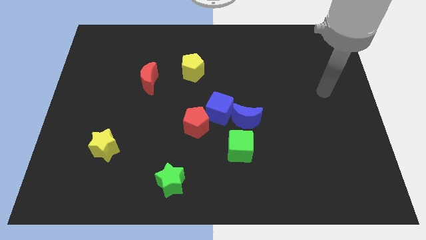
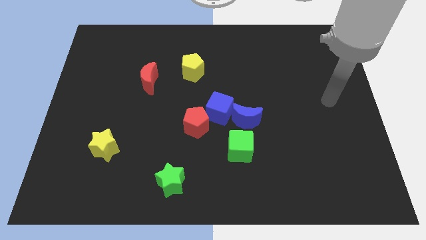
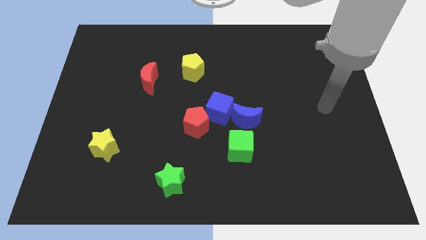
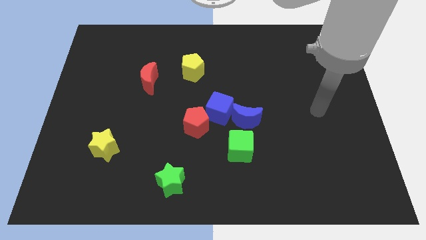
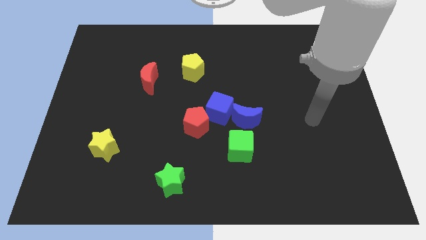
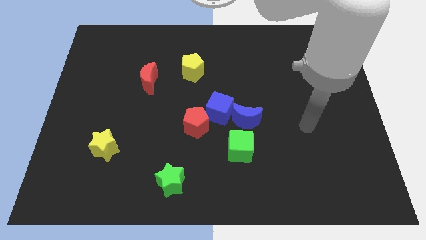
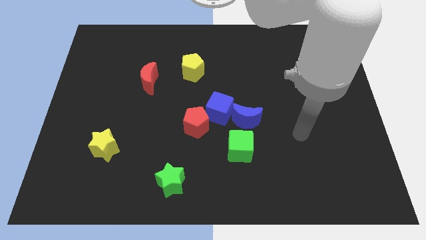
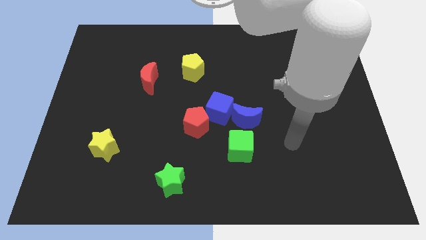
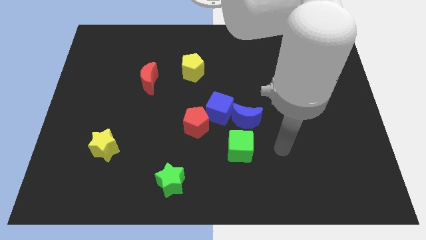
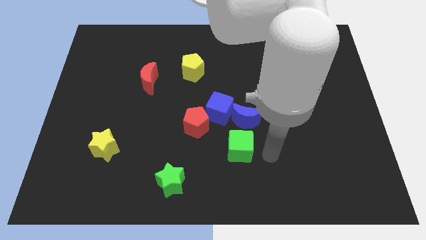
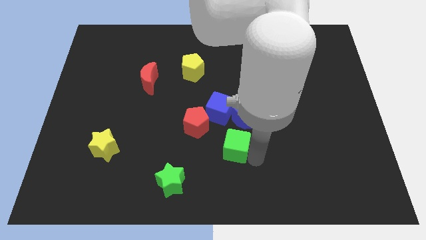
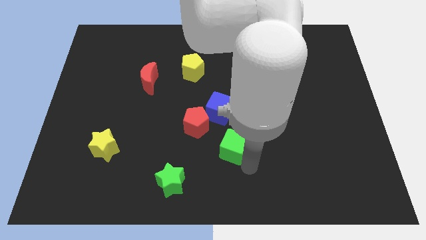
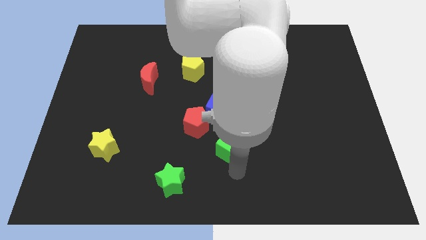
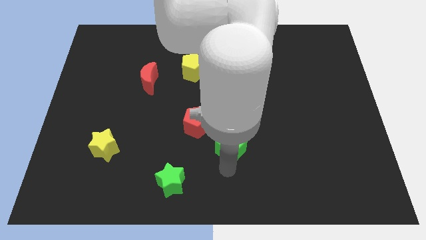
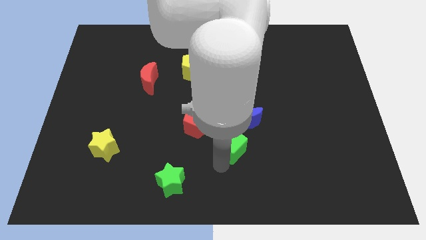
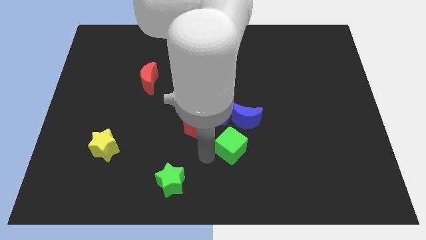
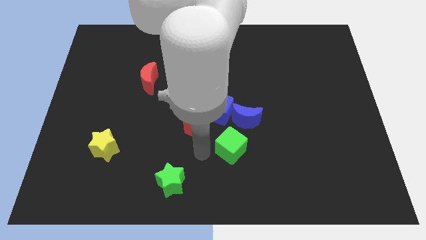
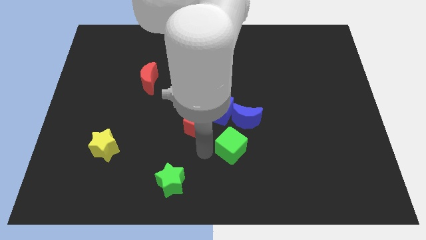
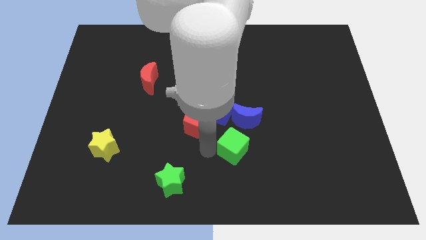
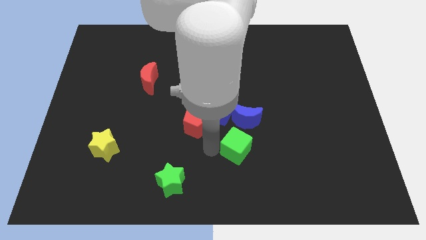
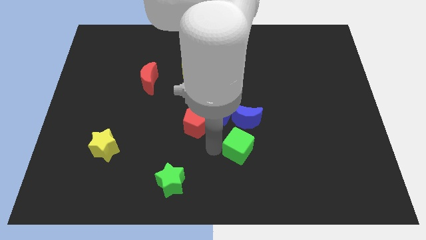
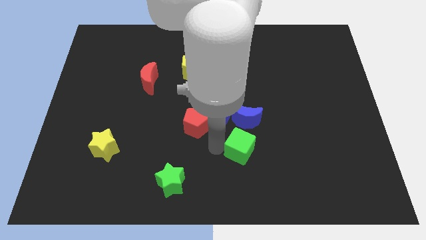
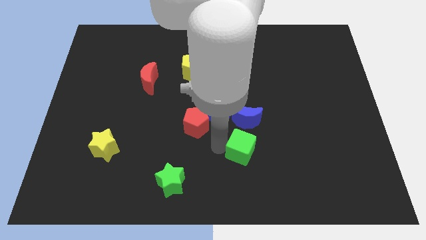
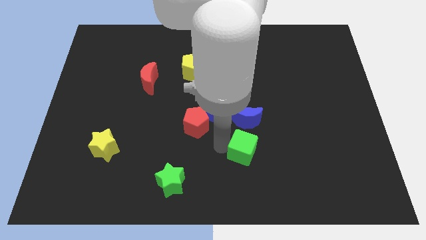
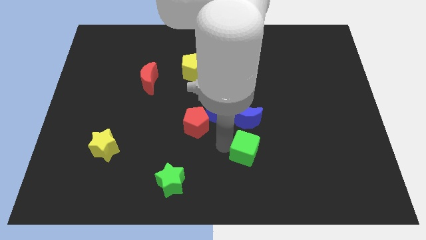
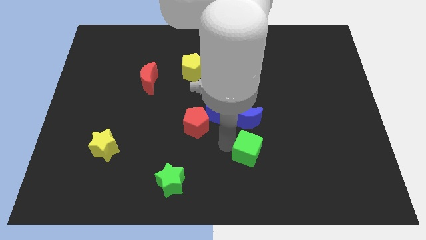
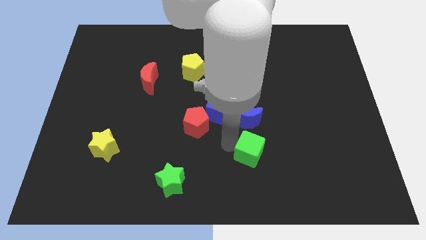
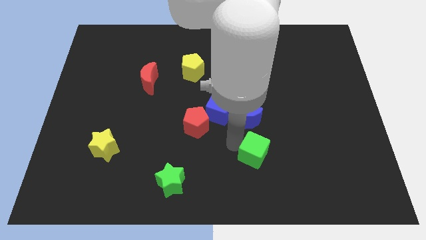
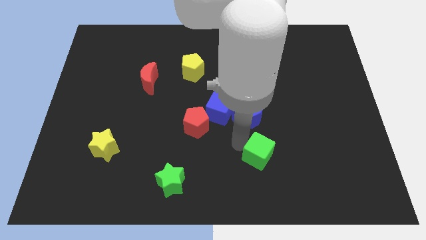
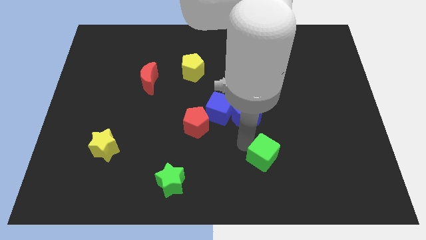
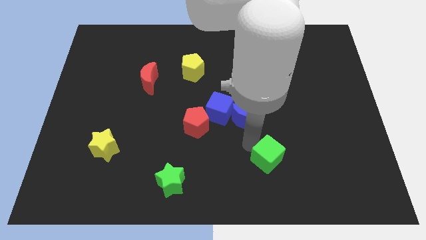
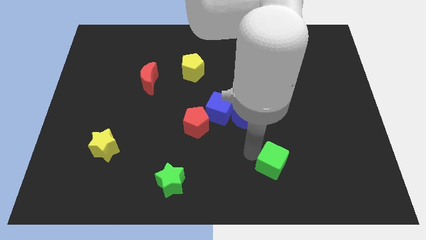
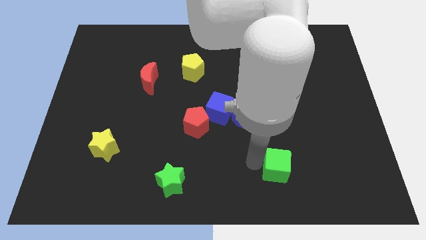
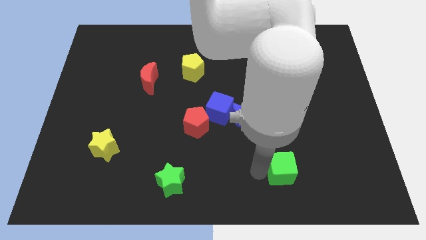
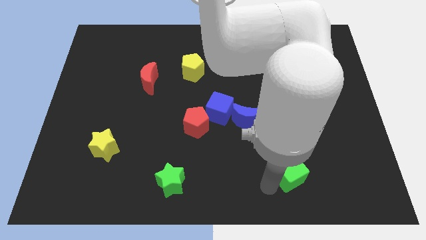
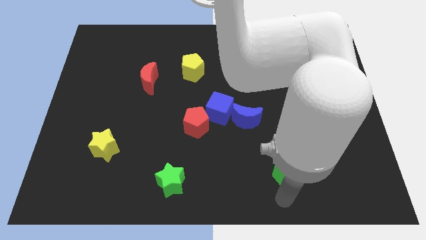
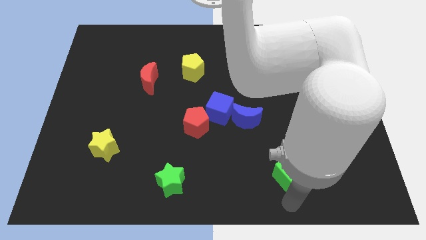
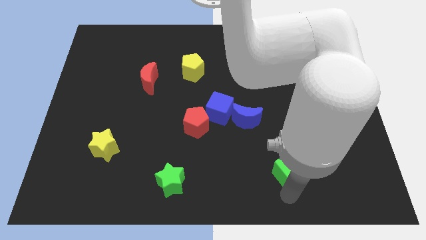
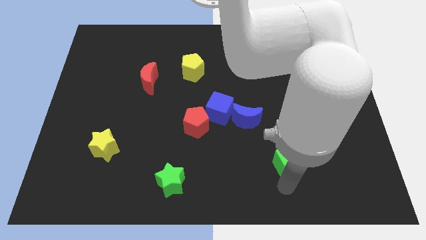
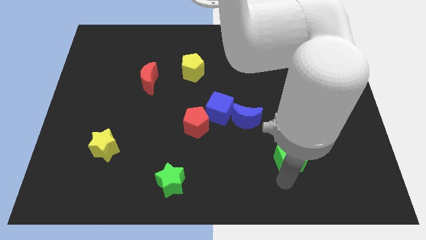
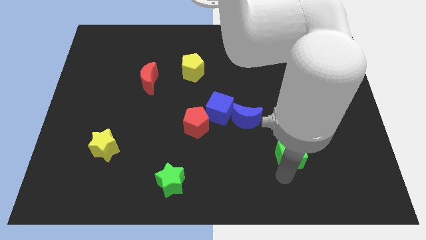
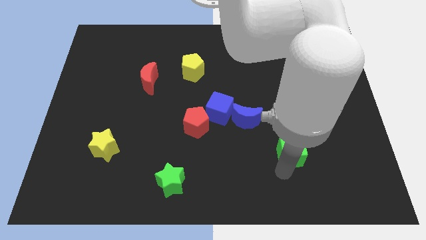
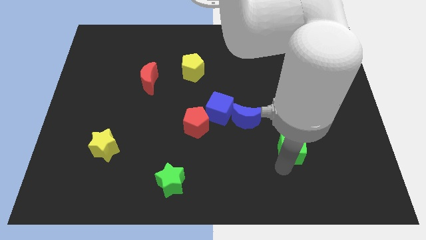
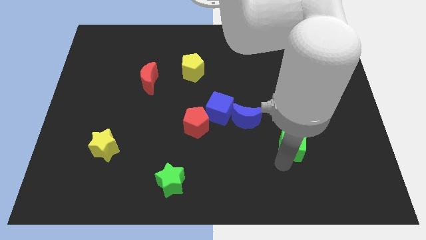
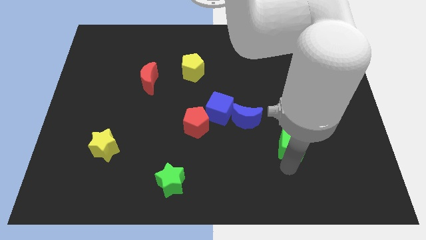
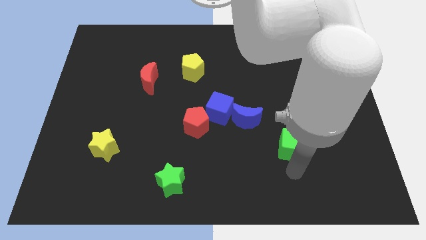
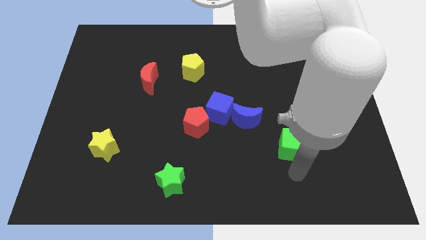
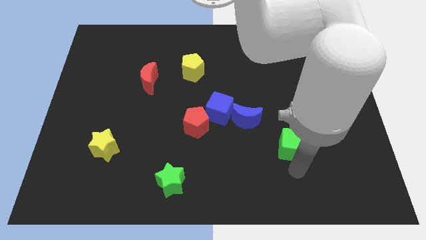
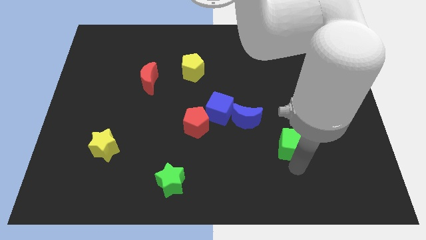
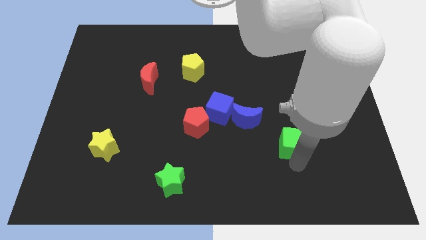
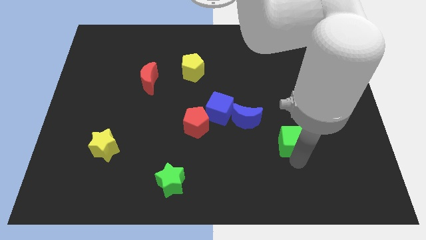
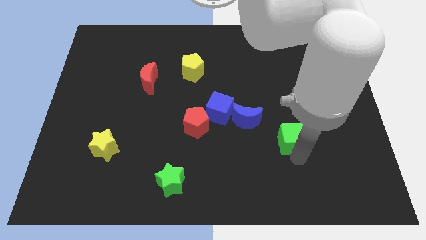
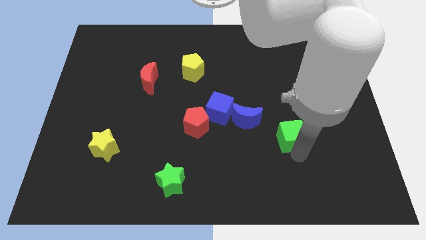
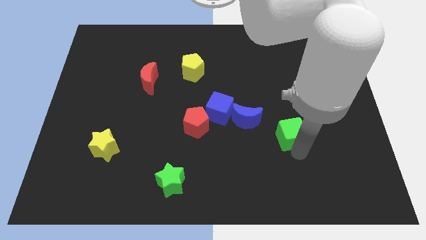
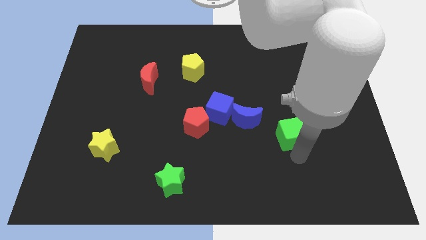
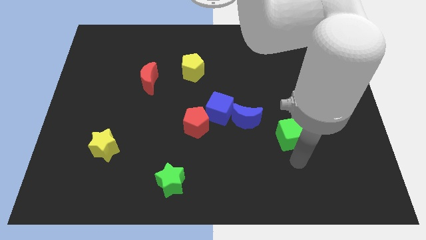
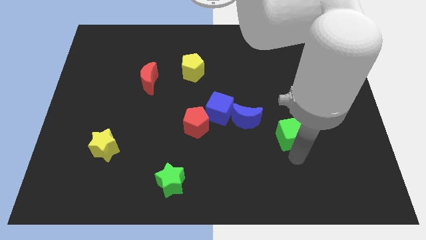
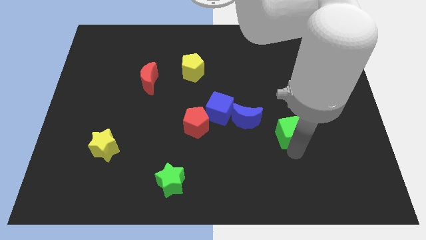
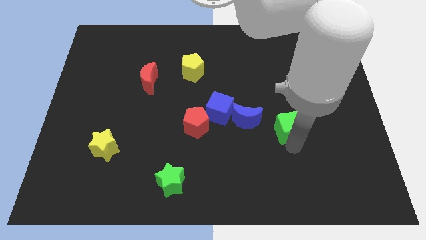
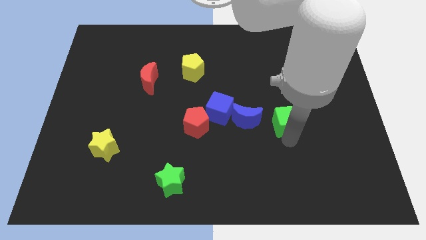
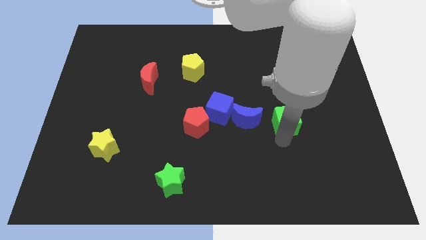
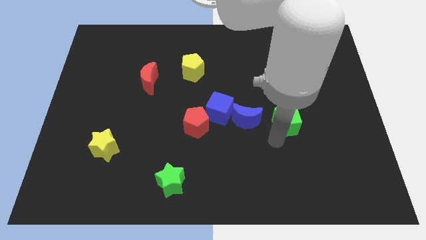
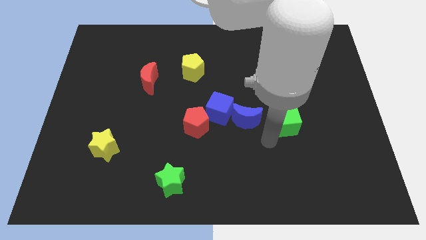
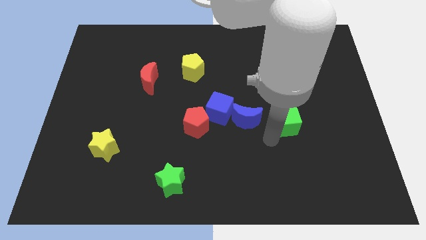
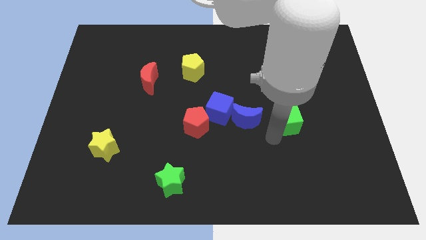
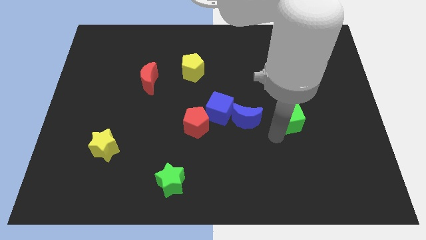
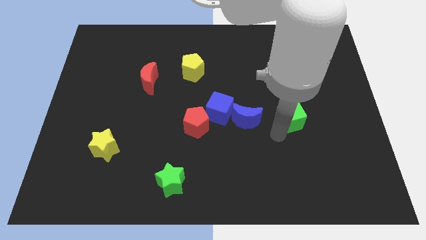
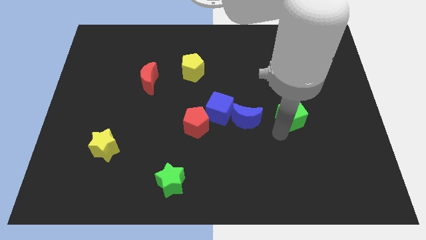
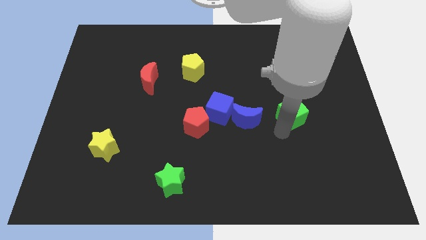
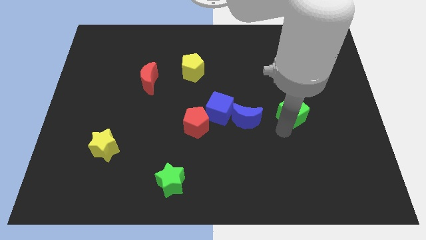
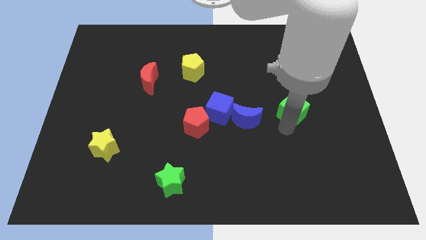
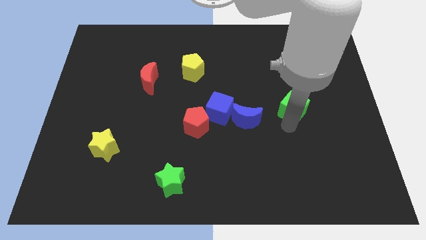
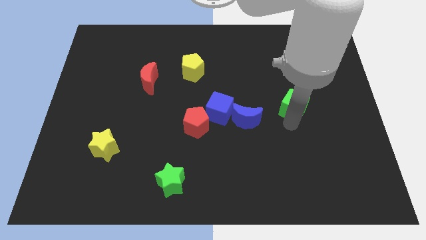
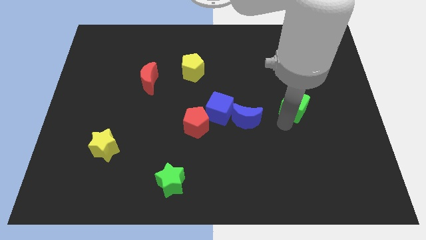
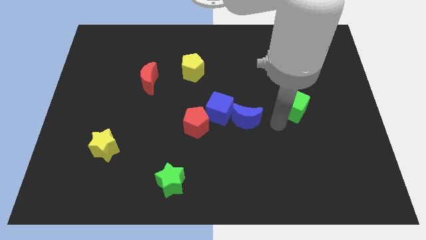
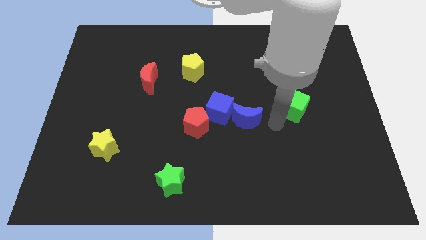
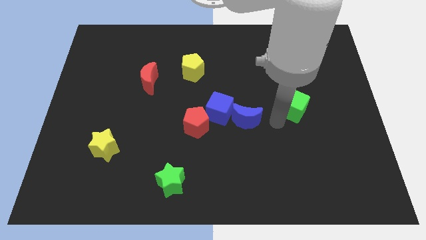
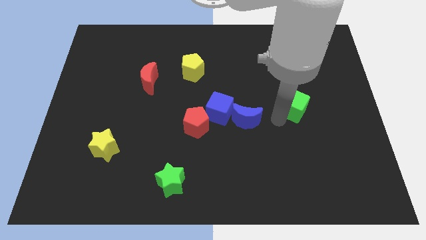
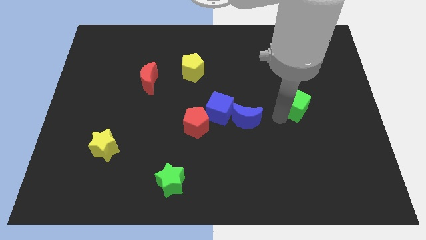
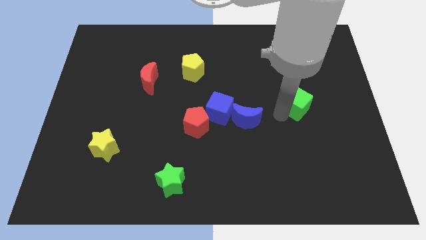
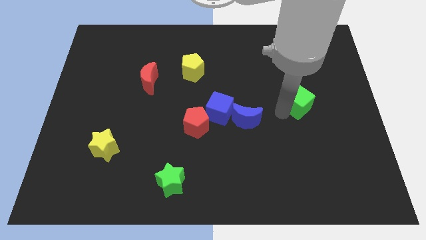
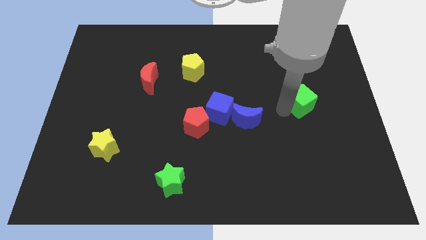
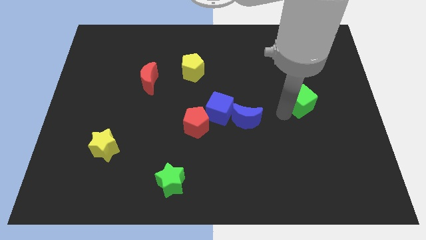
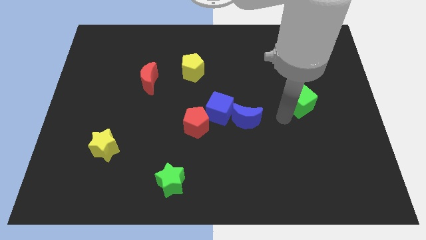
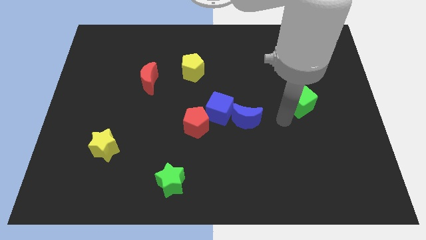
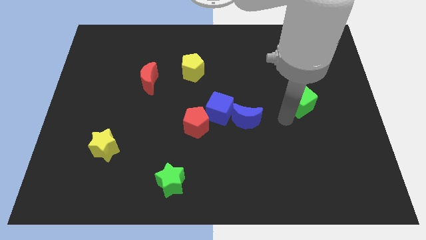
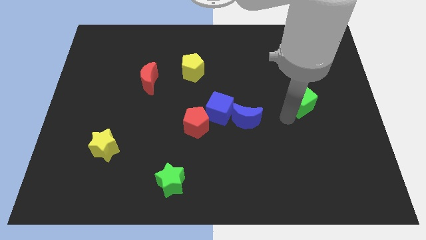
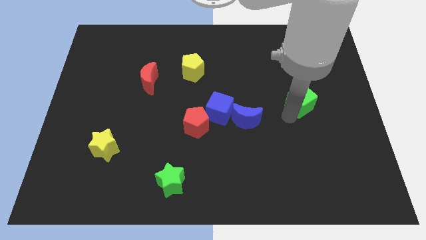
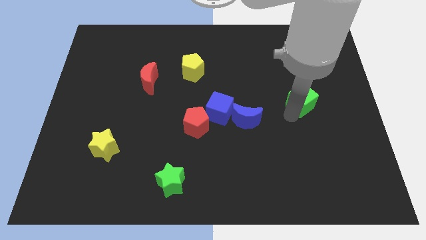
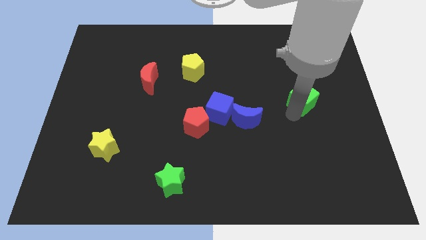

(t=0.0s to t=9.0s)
move the green cube up and to the right
